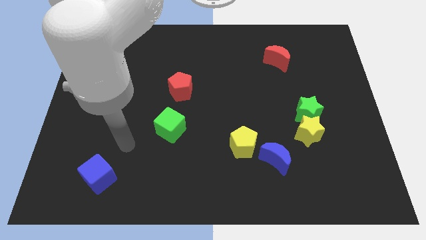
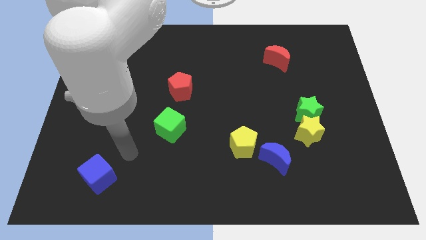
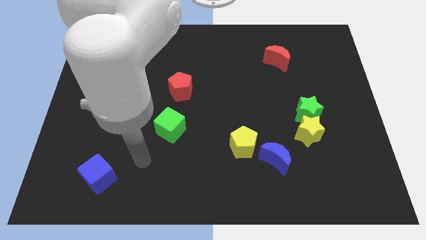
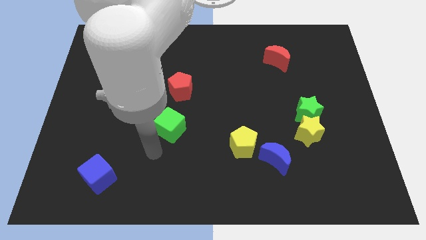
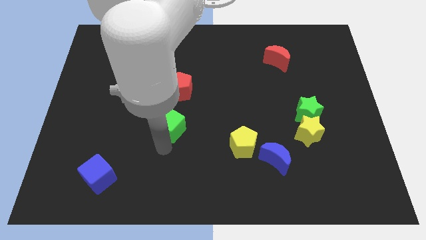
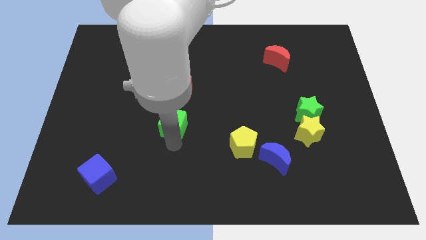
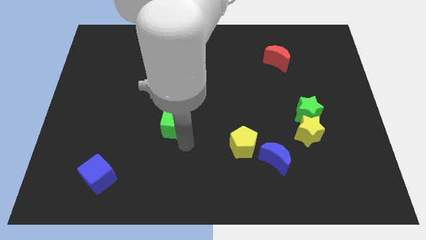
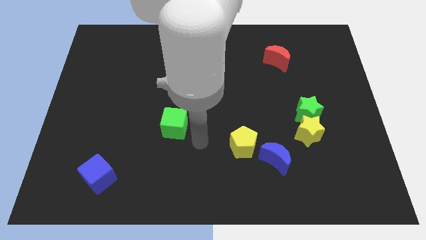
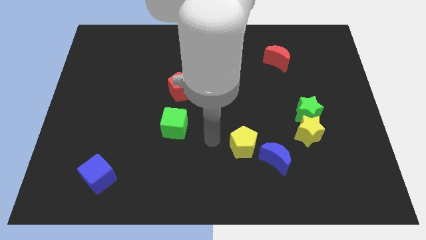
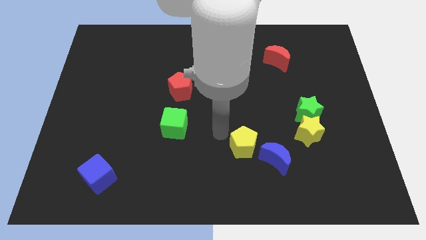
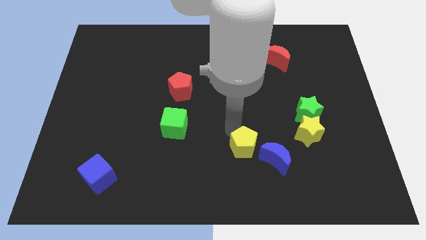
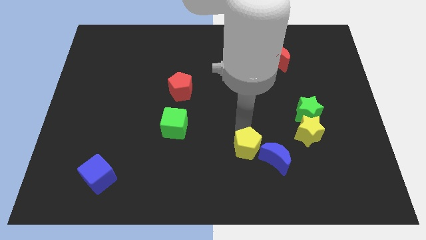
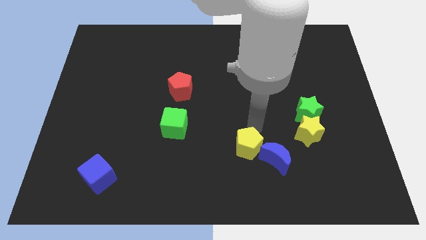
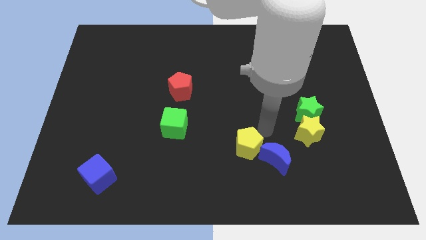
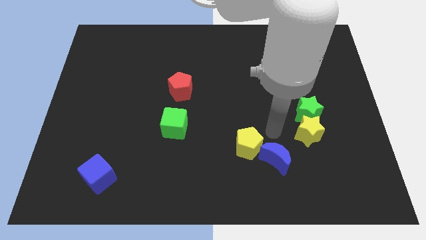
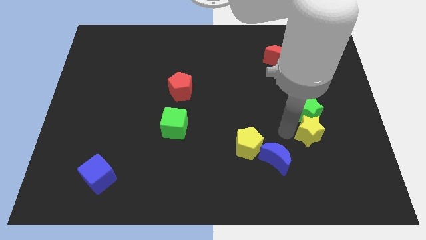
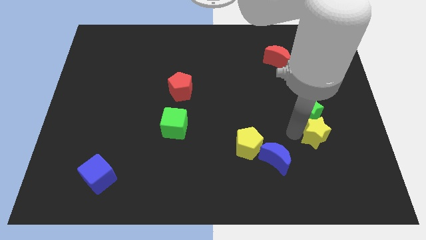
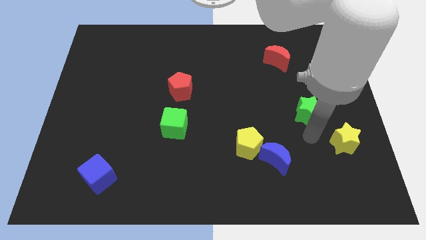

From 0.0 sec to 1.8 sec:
move the green star away from the yellow star

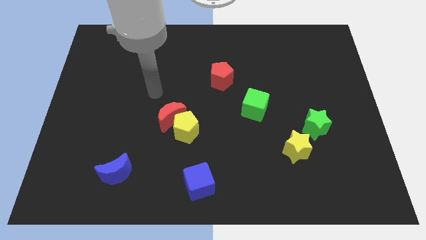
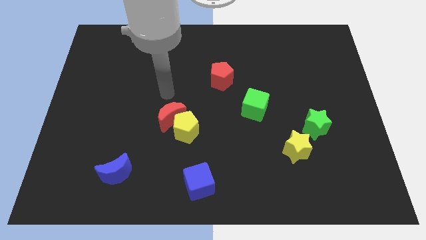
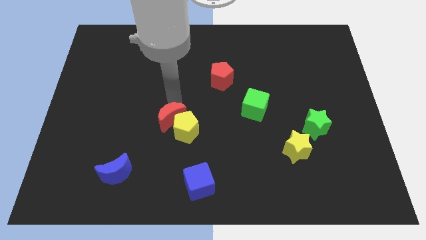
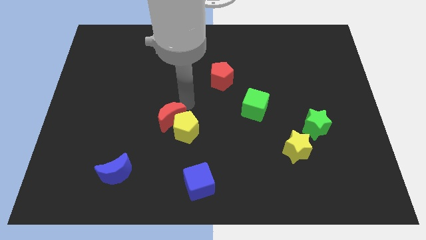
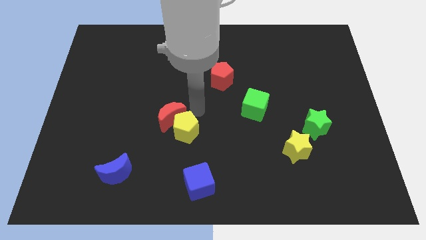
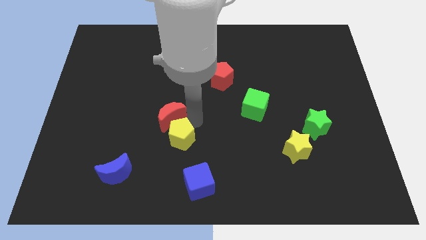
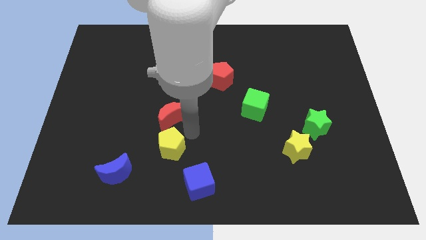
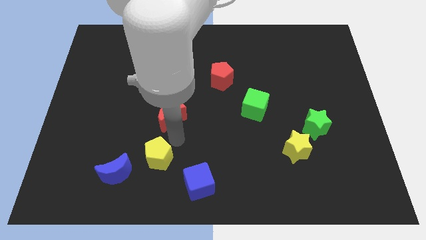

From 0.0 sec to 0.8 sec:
pull the red moon apart from the yellow pentagon

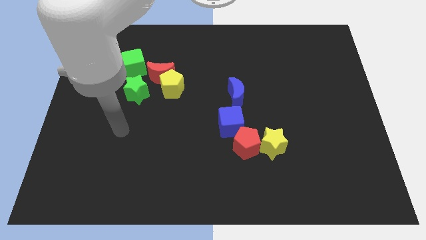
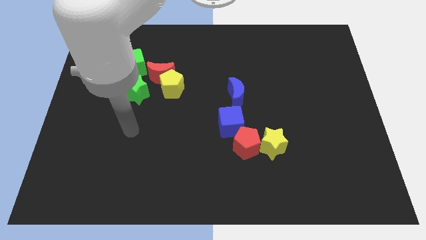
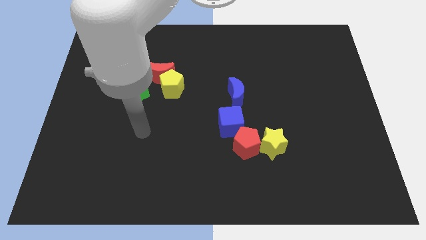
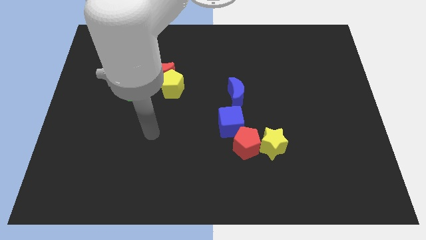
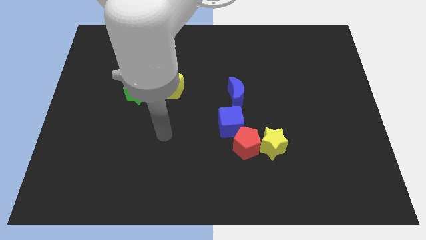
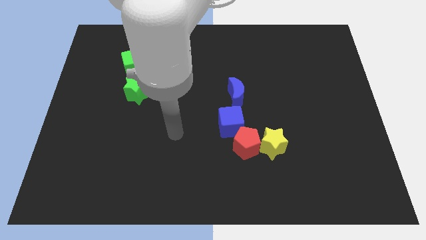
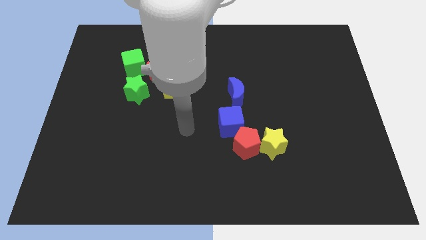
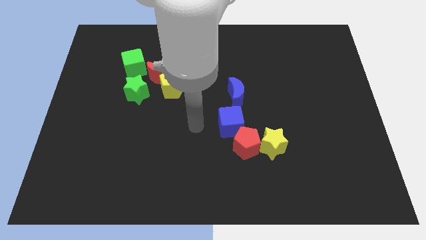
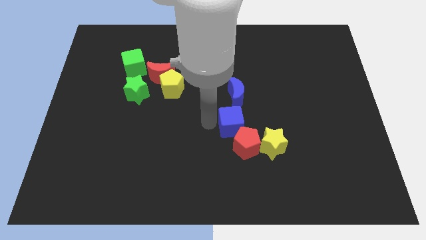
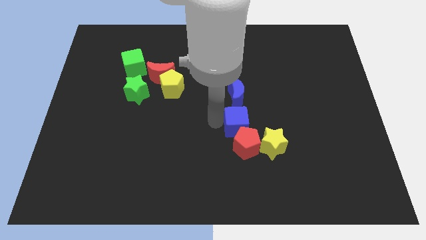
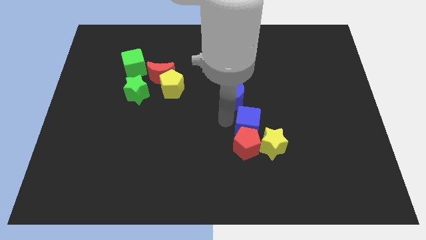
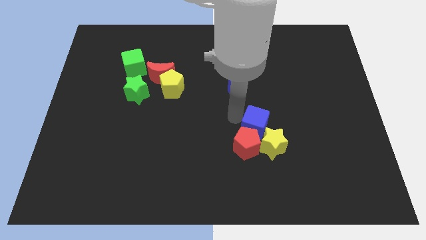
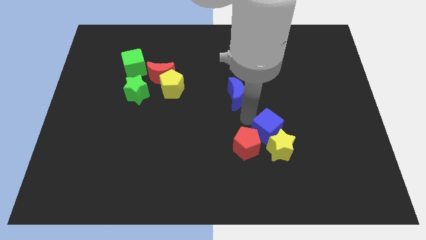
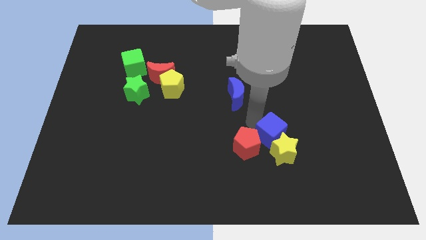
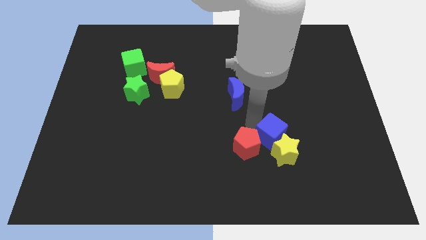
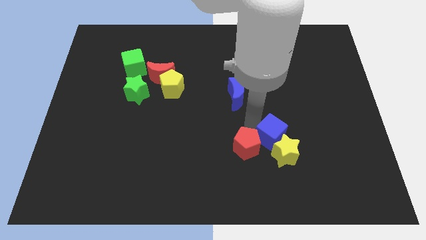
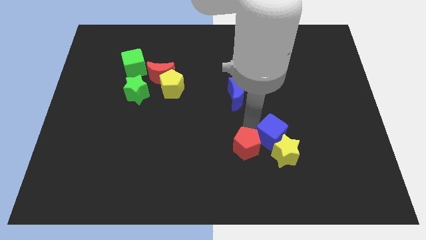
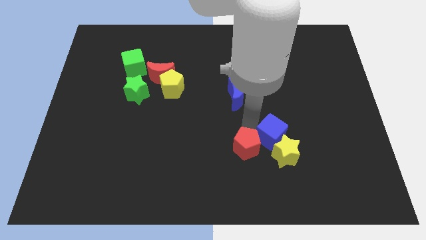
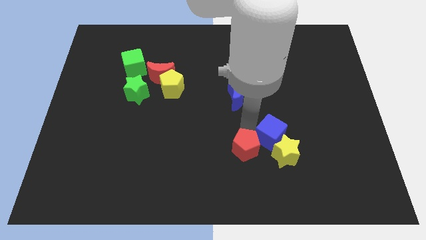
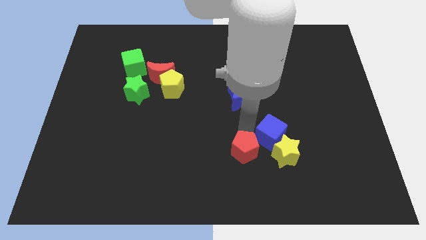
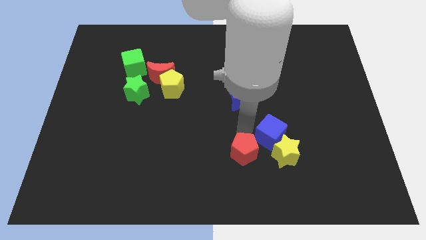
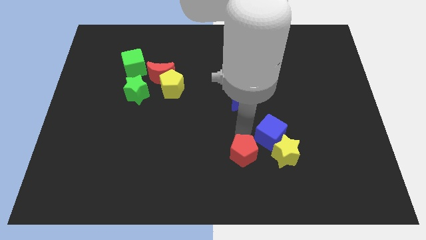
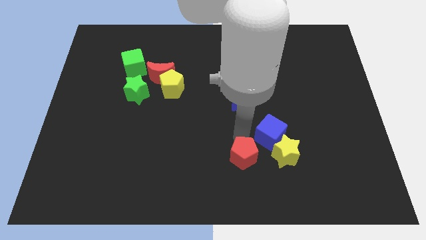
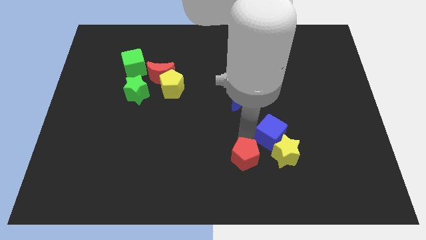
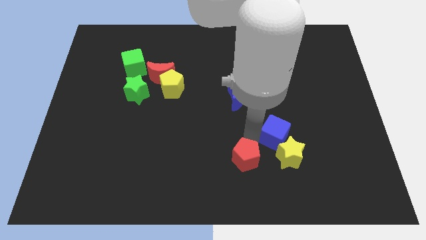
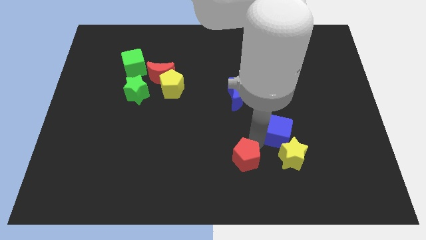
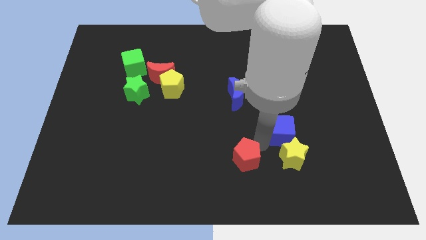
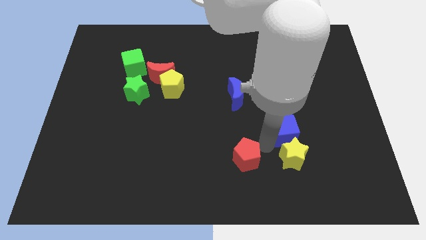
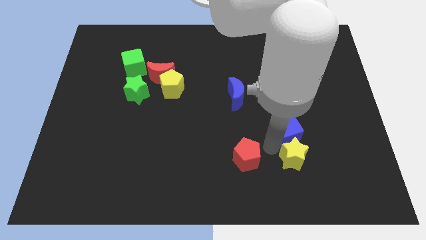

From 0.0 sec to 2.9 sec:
separate the red pentagon from the yellow star and blue cube

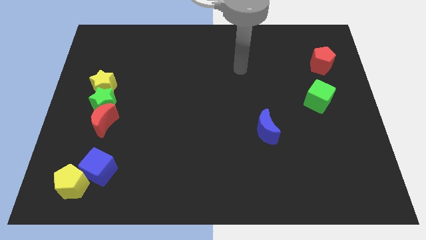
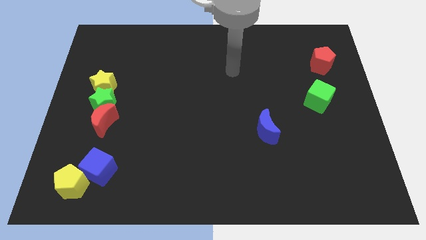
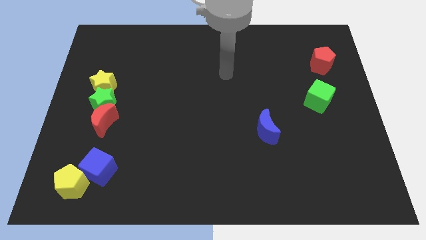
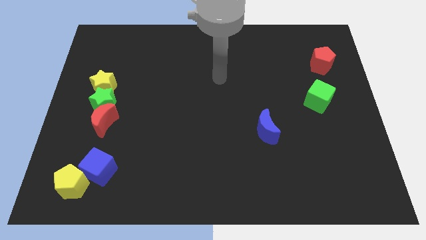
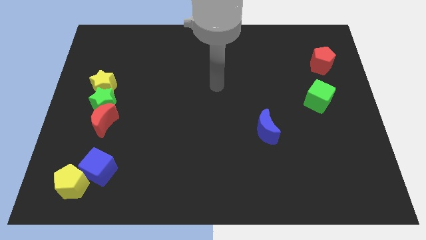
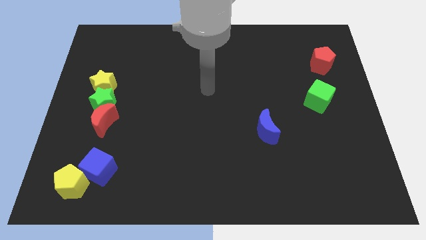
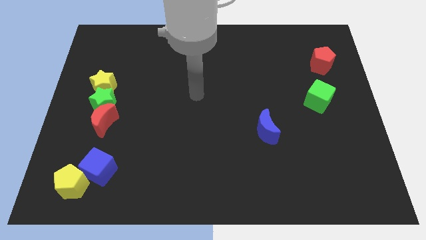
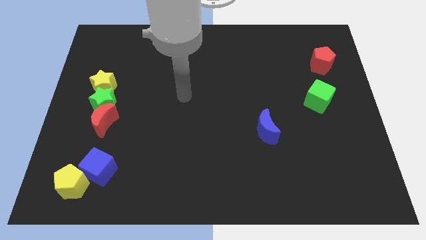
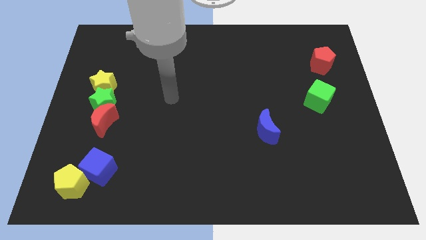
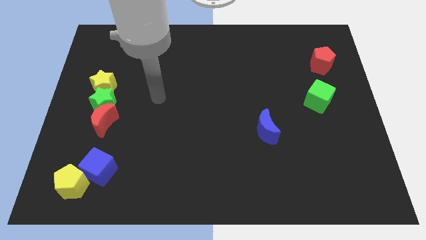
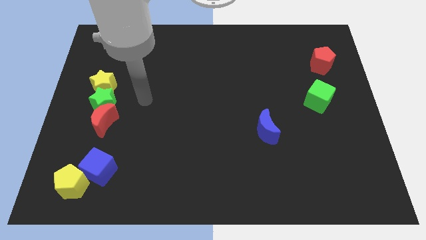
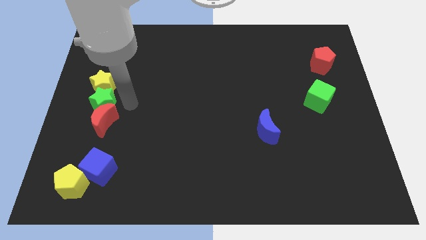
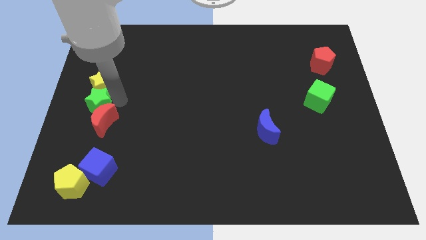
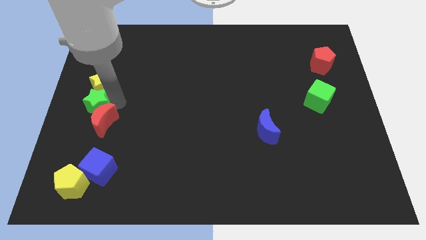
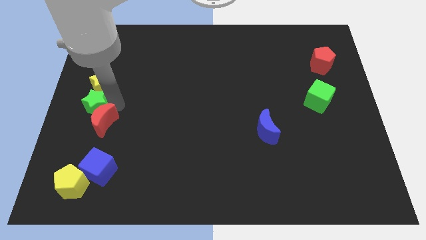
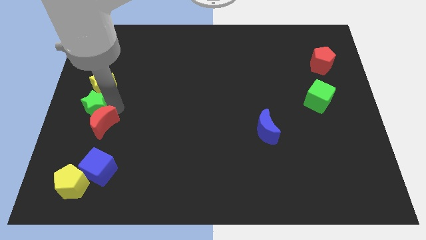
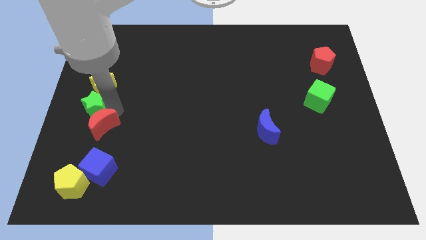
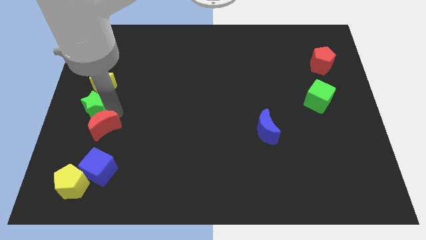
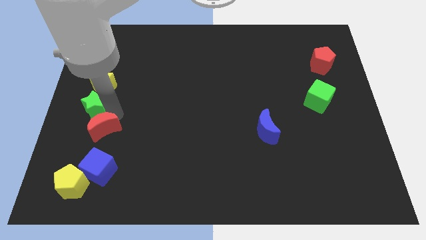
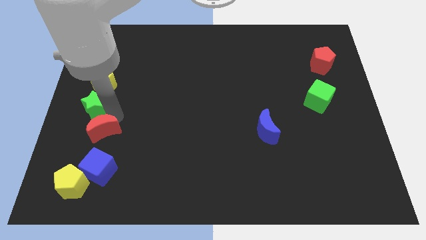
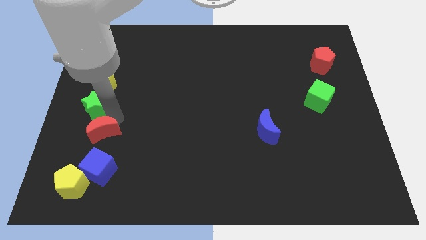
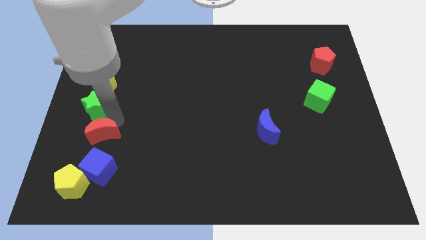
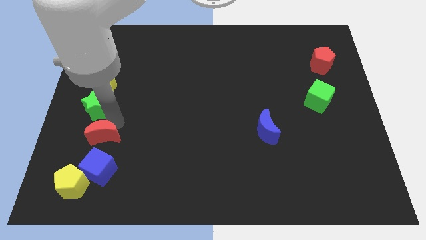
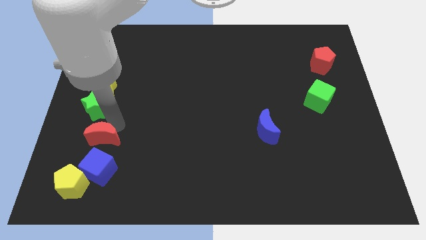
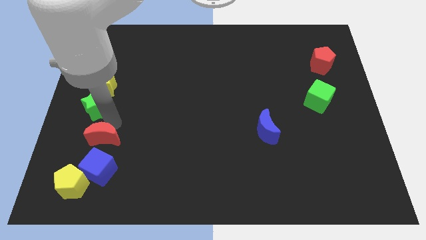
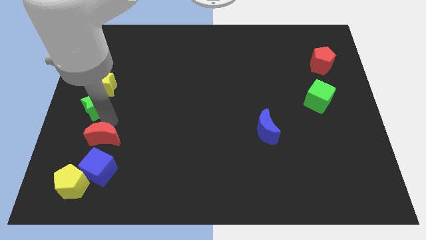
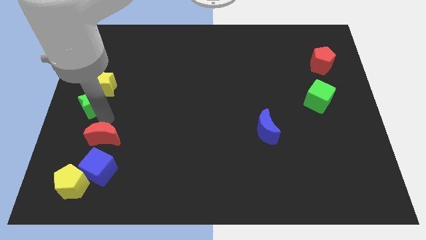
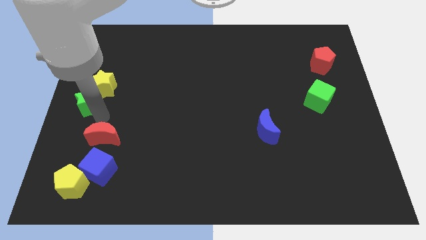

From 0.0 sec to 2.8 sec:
pull the red moon apart from the green star

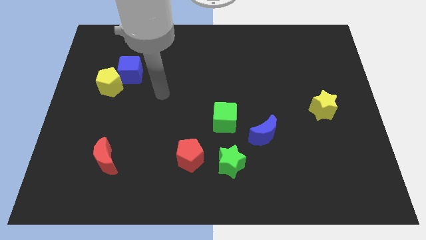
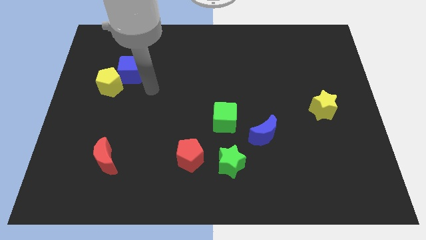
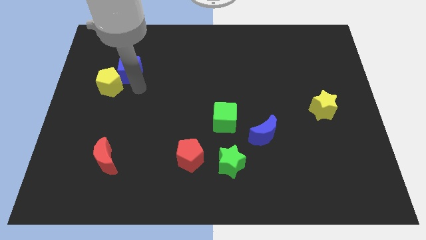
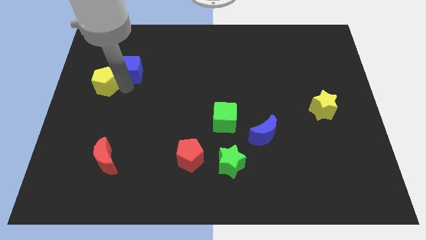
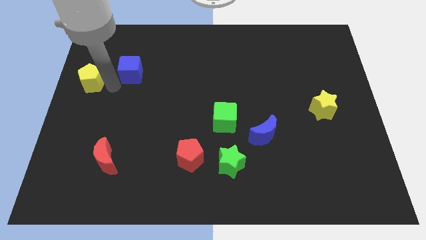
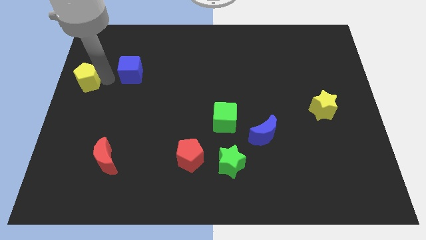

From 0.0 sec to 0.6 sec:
pull the blue cube apart from the yellow pentagon

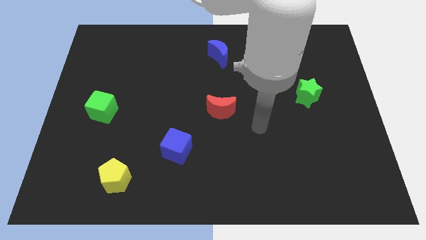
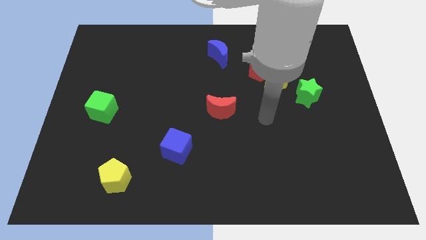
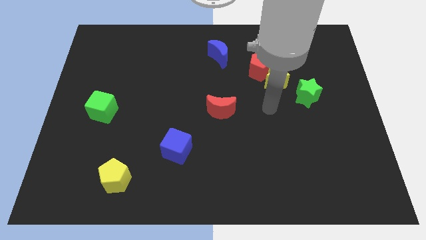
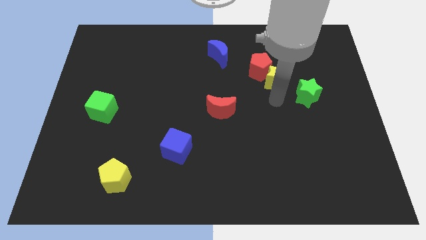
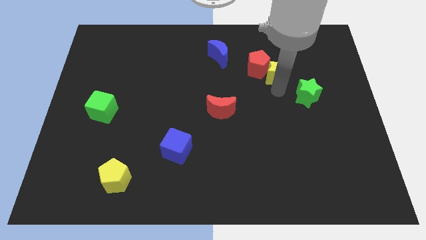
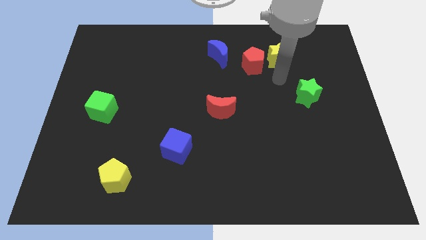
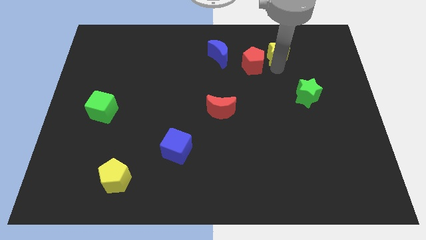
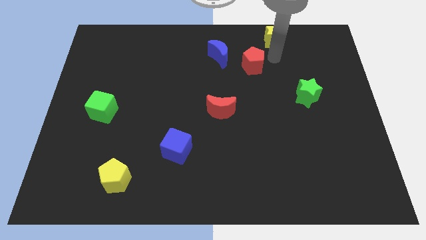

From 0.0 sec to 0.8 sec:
pull the red pentagon apart from the yellow star
